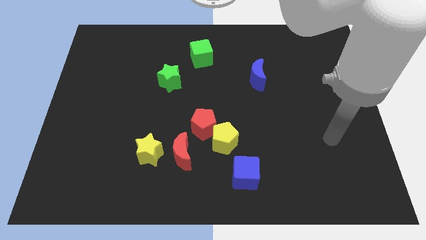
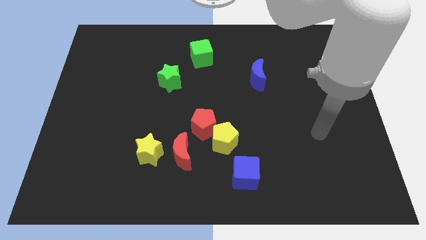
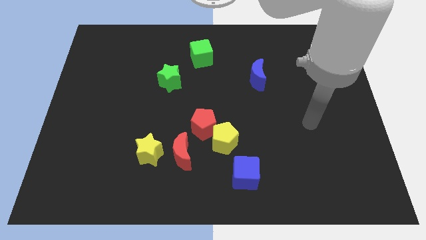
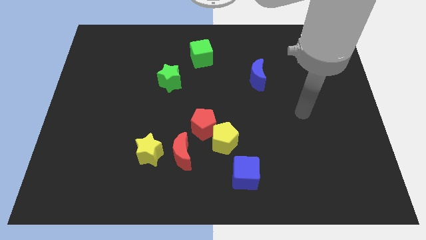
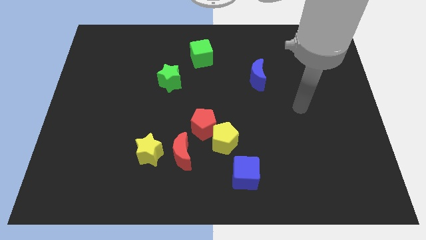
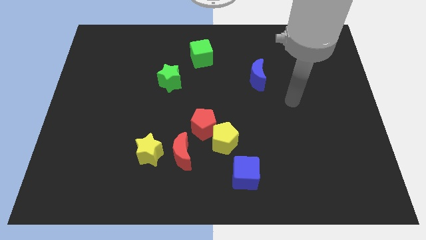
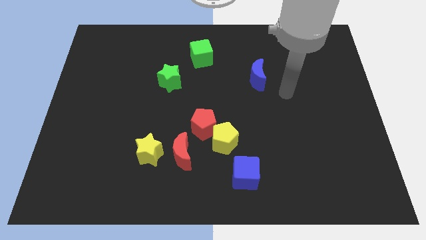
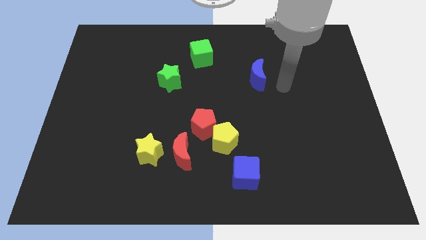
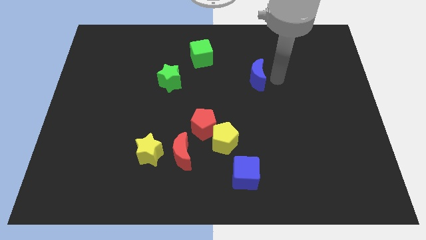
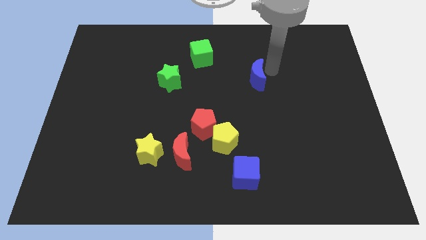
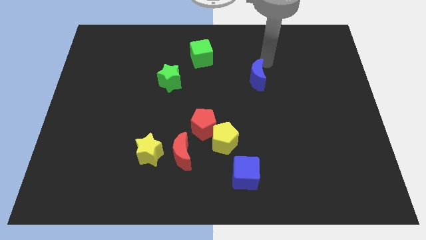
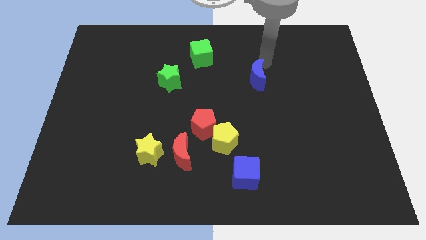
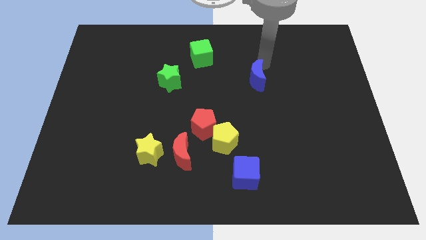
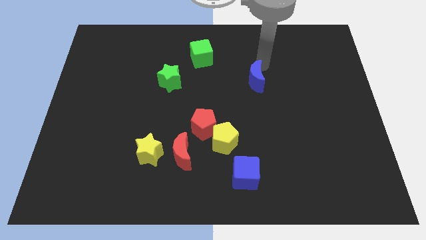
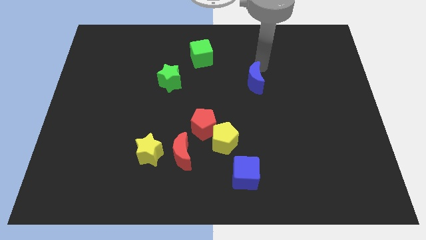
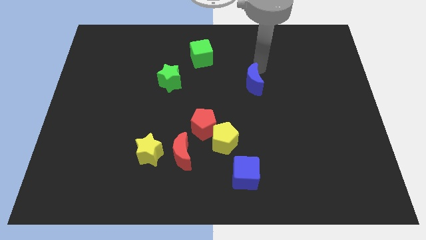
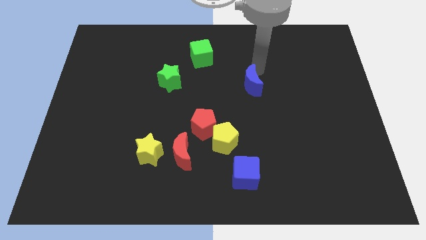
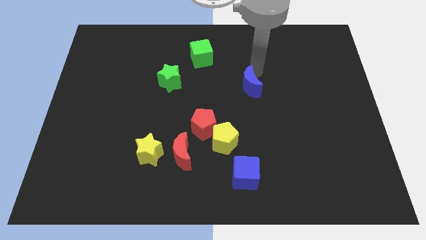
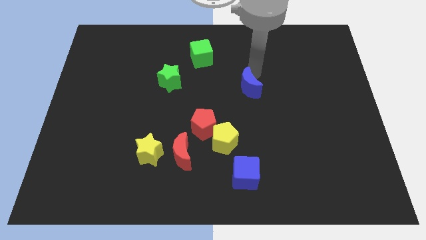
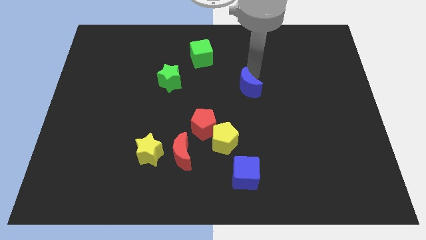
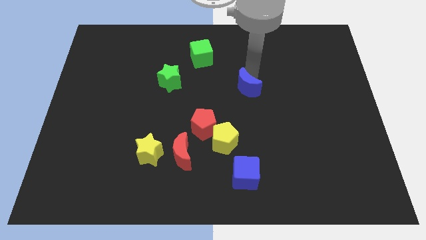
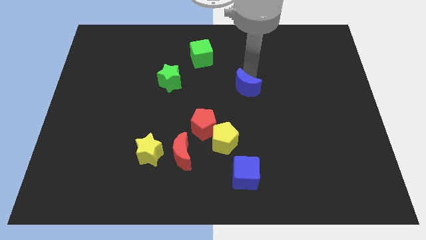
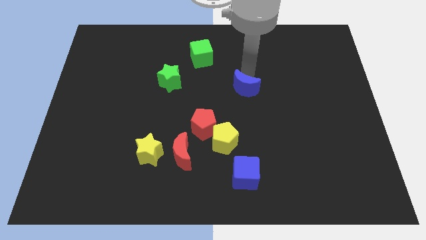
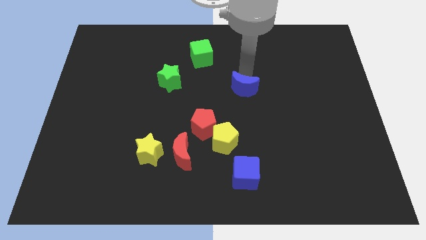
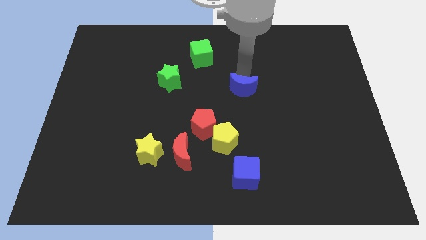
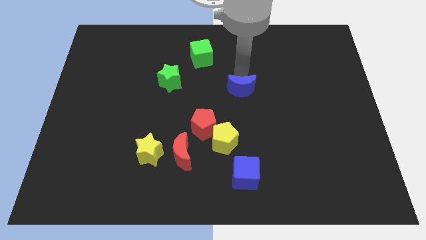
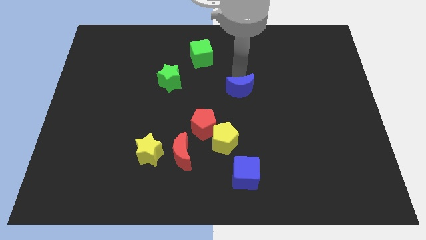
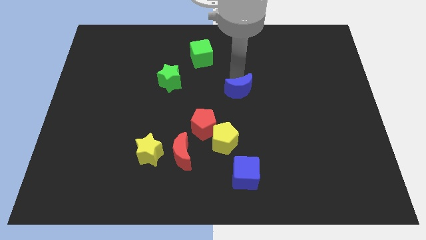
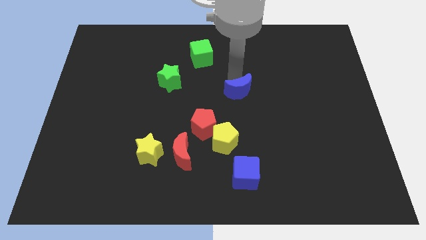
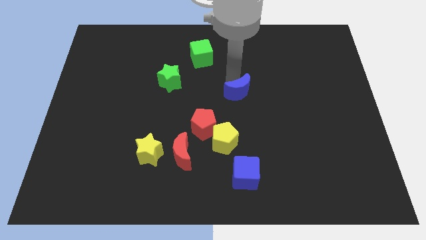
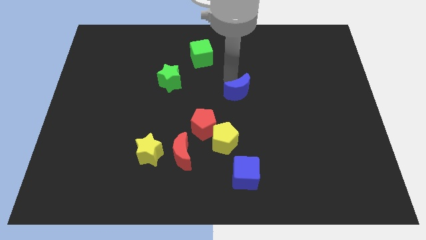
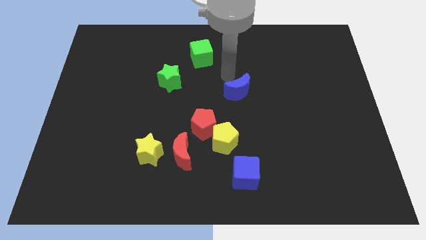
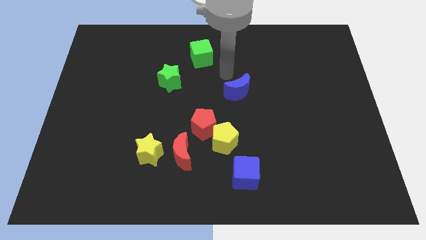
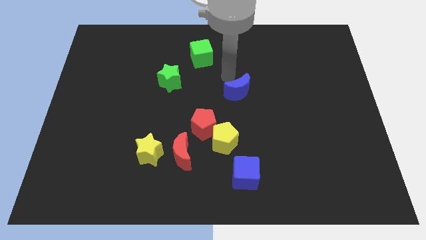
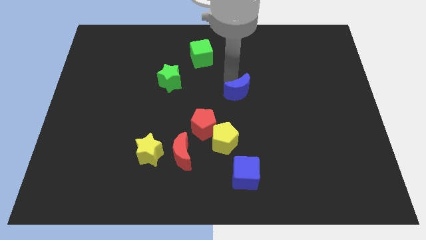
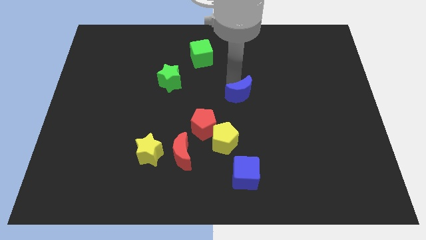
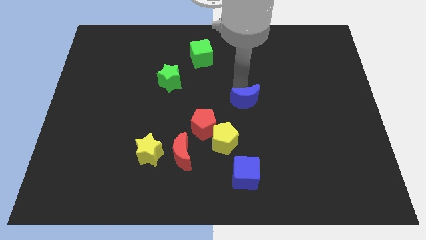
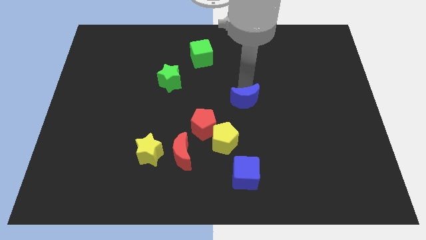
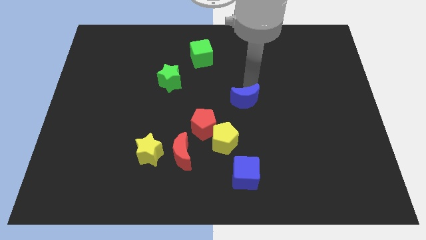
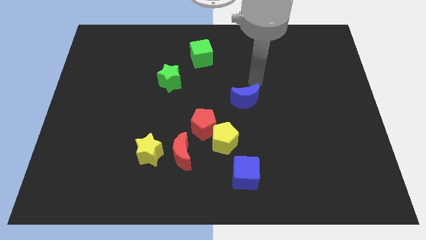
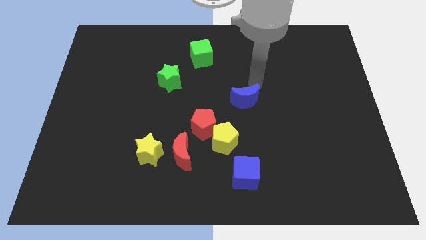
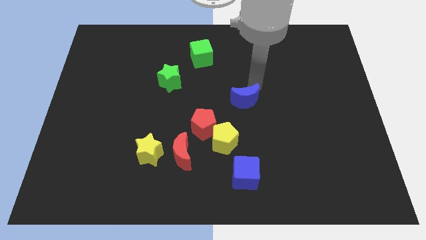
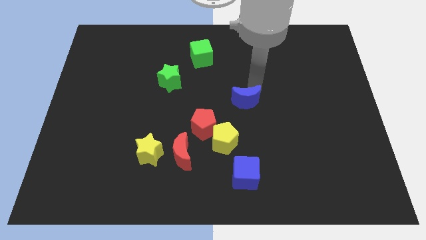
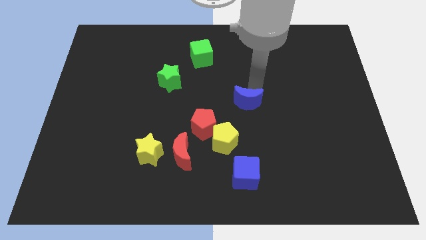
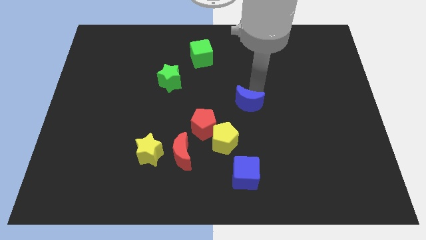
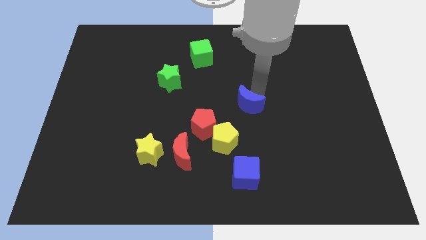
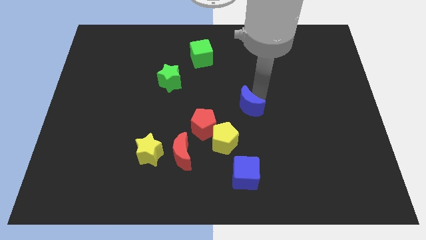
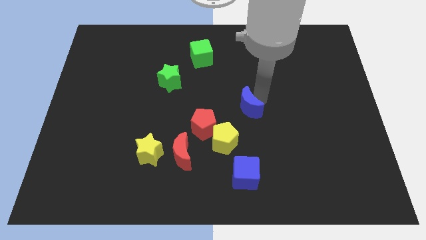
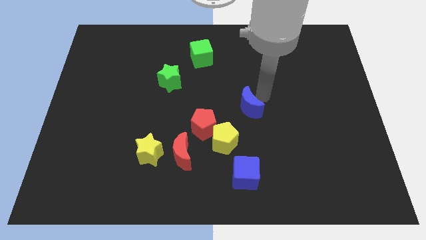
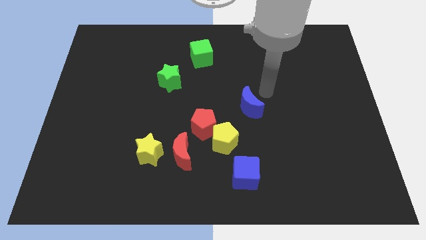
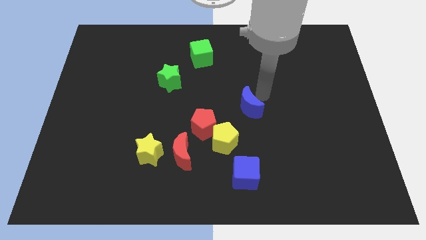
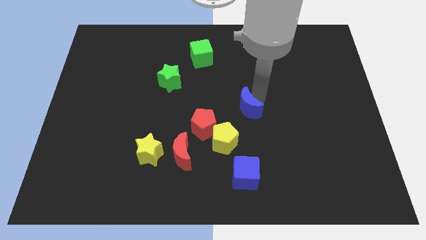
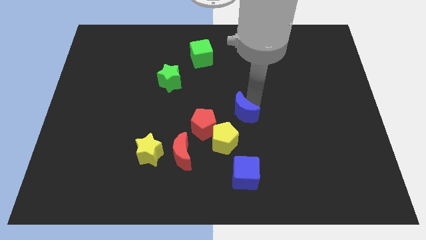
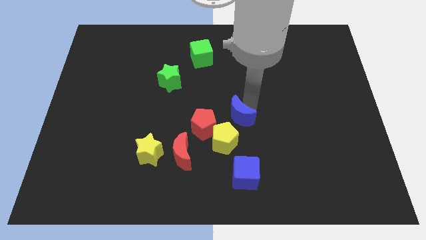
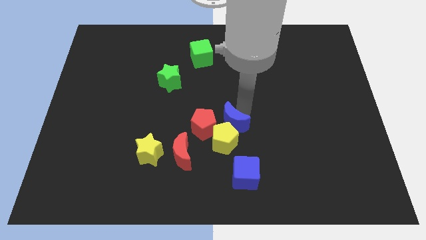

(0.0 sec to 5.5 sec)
push the blue moon close to the yellow pentagon

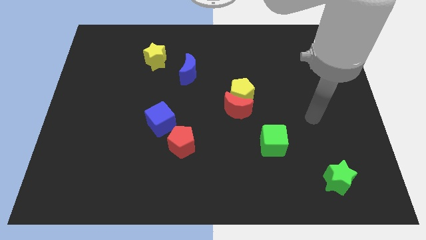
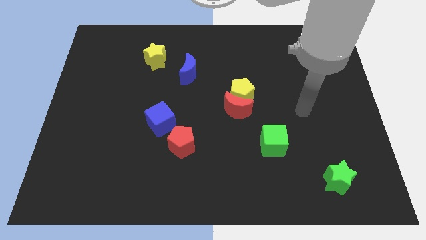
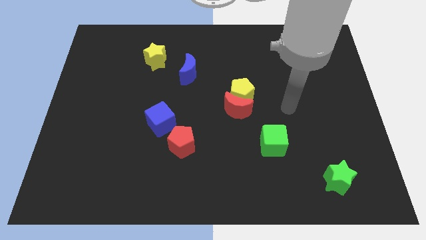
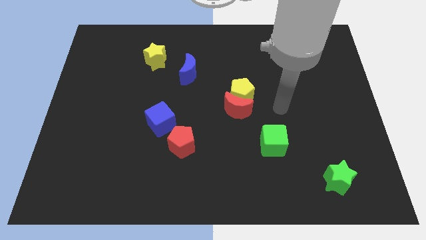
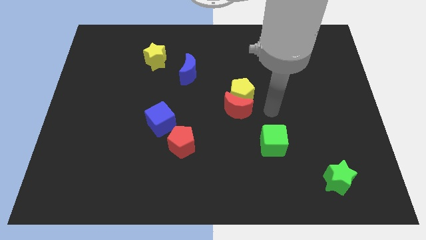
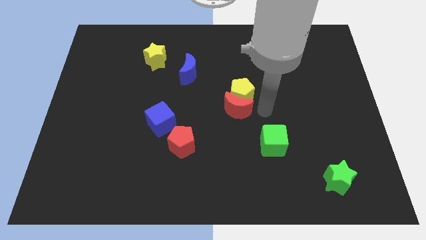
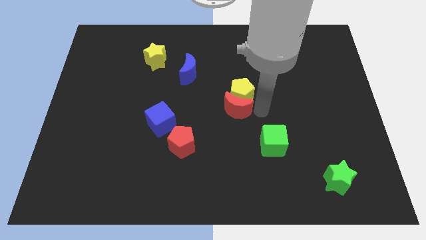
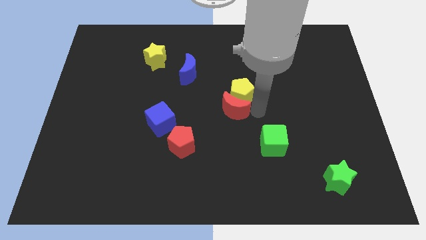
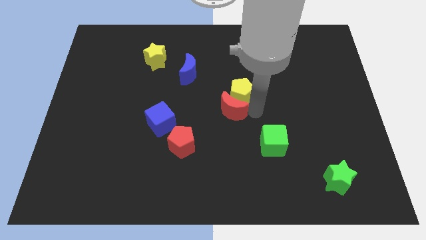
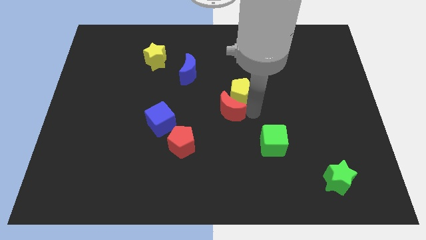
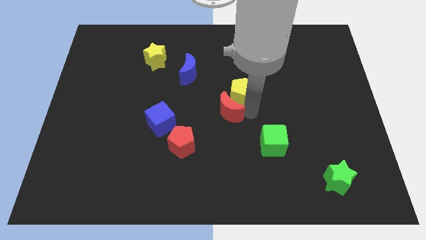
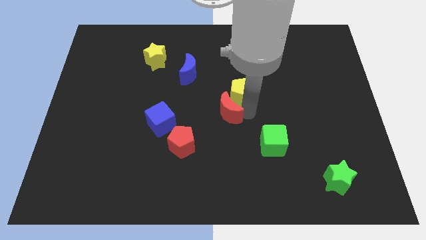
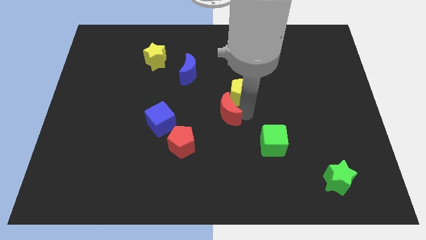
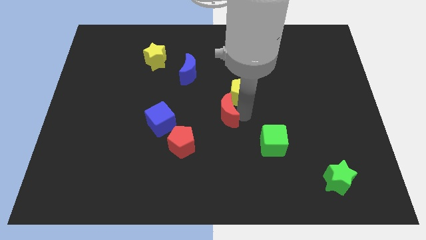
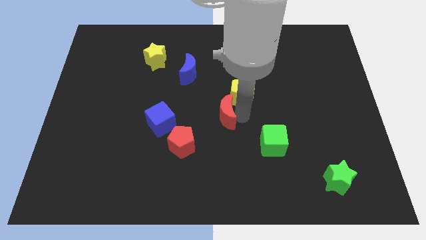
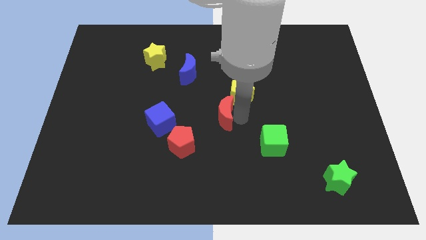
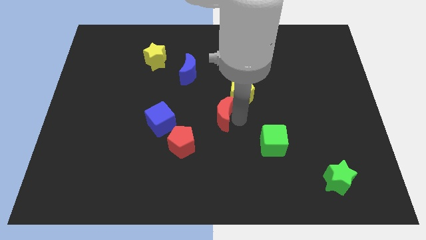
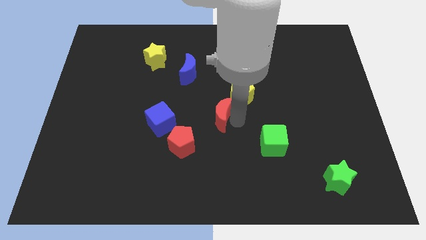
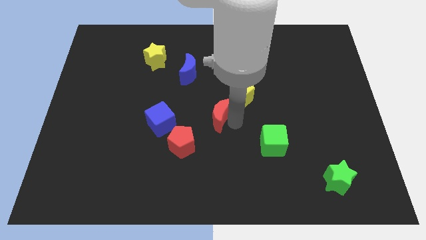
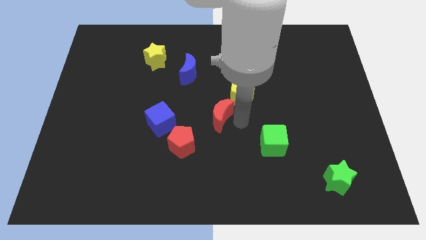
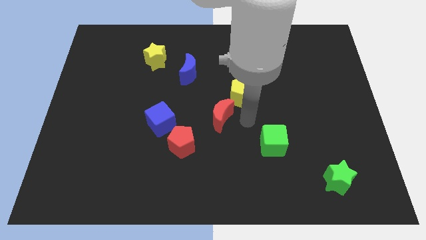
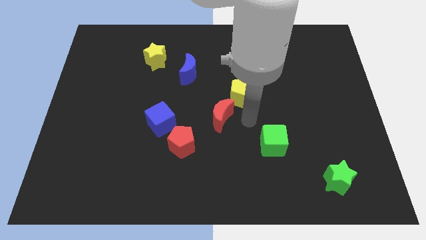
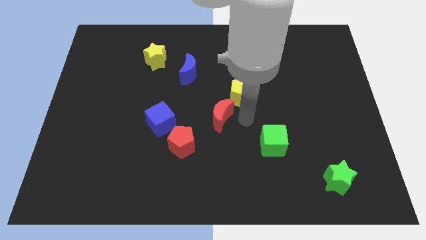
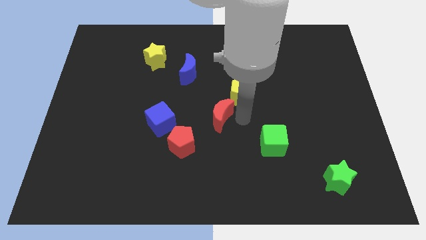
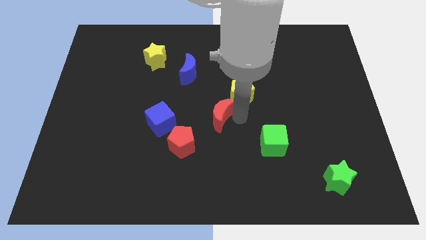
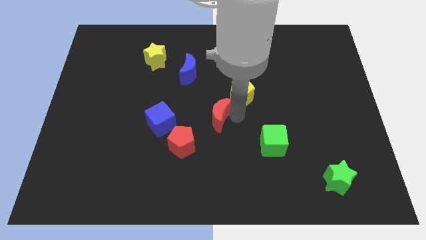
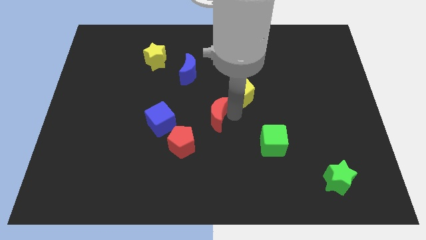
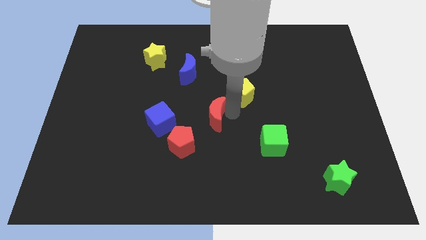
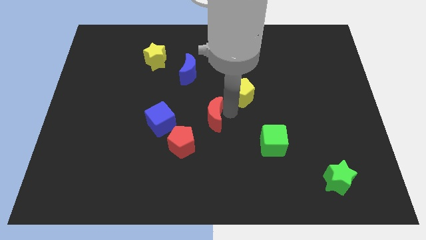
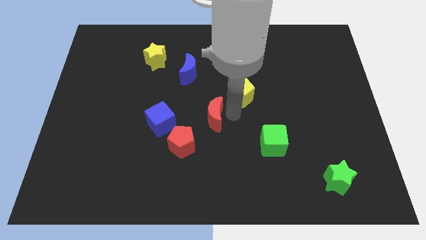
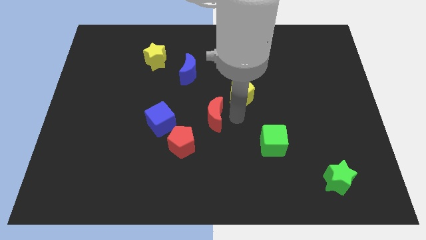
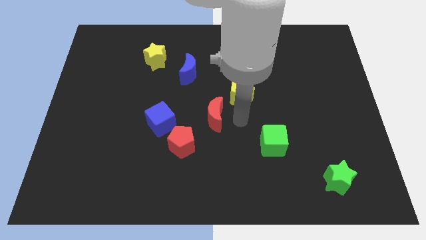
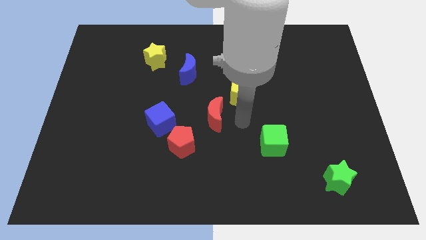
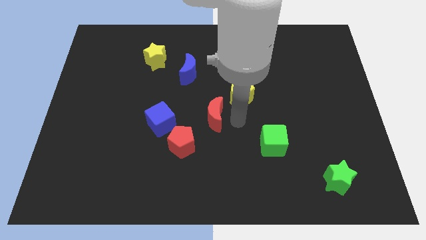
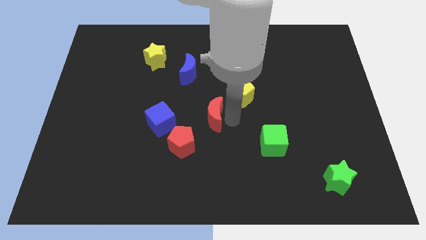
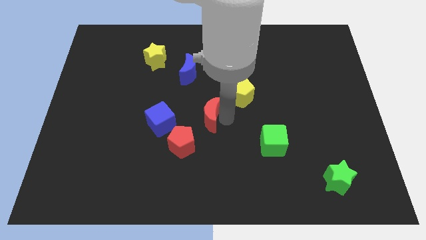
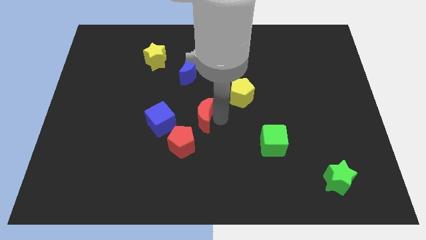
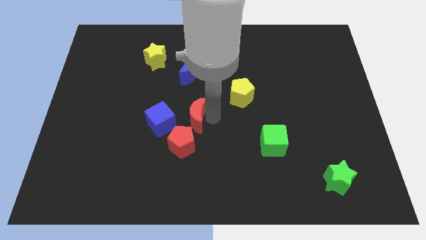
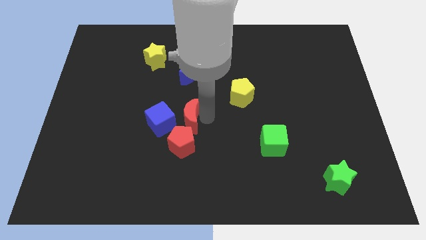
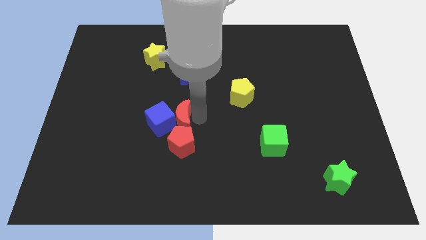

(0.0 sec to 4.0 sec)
move the red moon close to the blue cube
